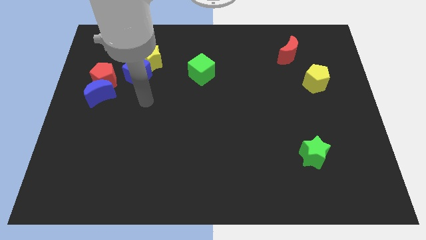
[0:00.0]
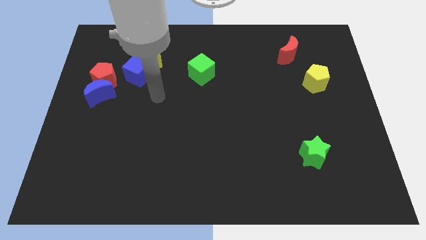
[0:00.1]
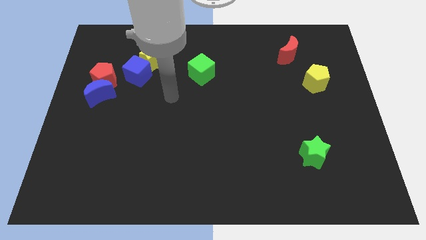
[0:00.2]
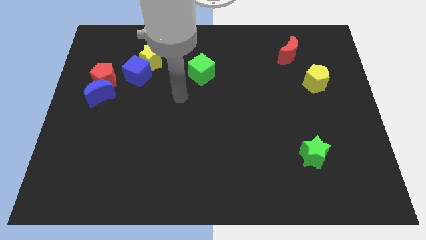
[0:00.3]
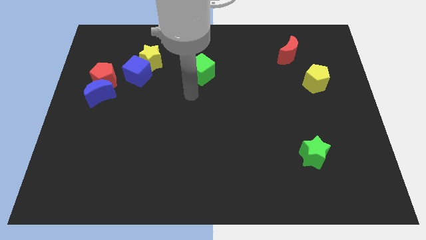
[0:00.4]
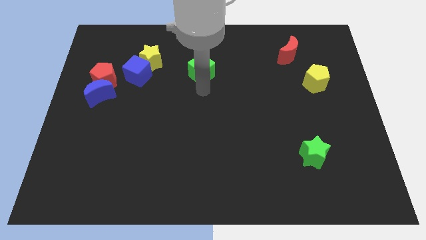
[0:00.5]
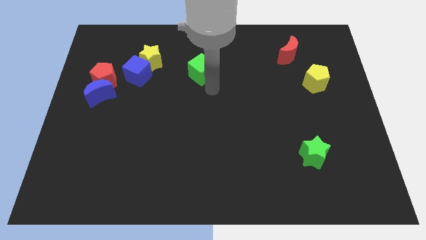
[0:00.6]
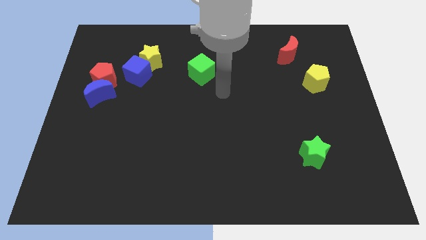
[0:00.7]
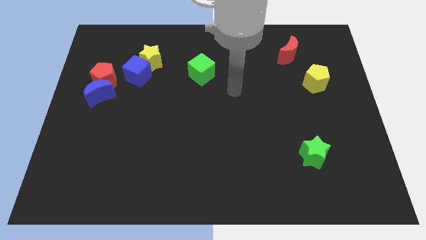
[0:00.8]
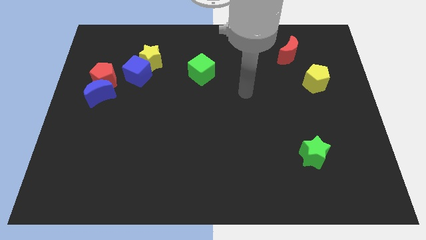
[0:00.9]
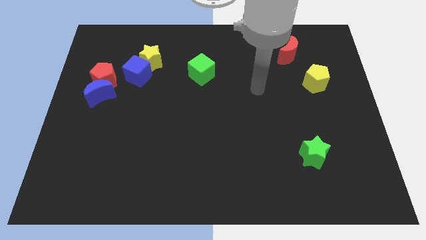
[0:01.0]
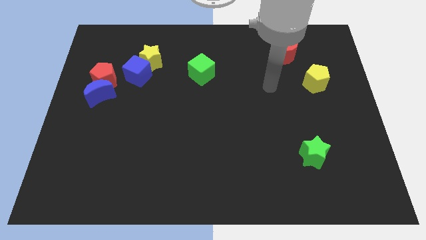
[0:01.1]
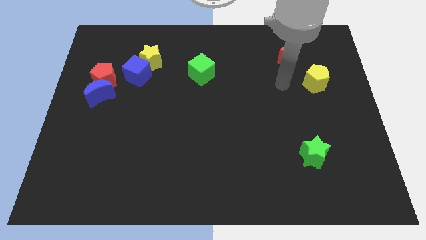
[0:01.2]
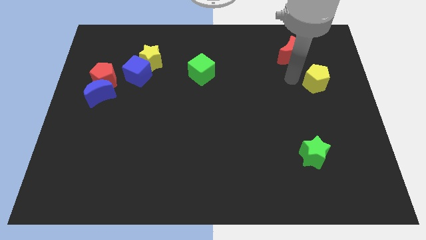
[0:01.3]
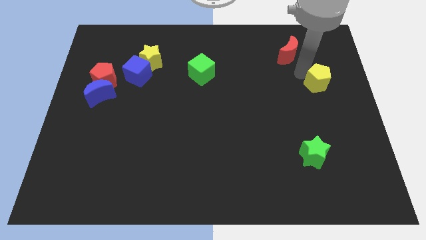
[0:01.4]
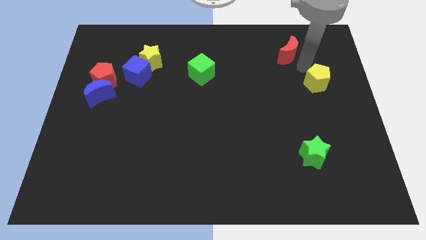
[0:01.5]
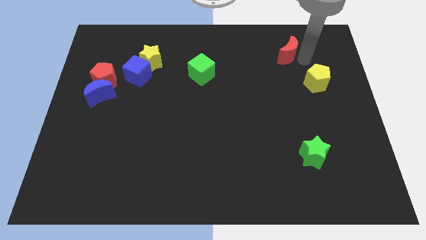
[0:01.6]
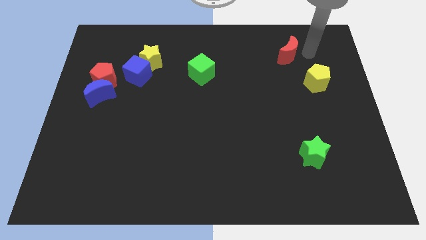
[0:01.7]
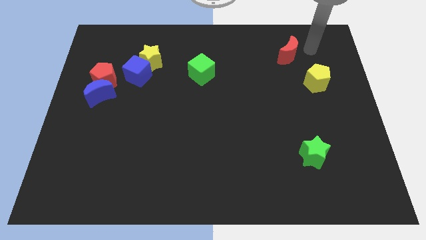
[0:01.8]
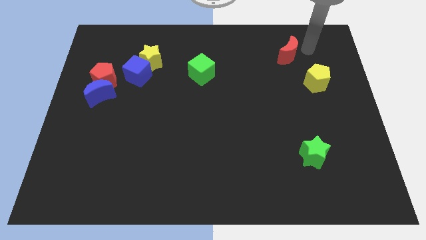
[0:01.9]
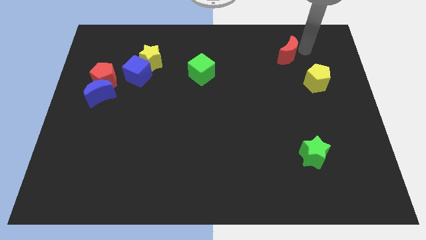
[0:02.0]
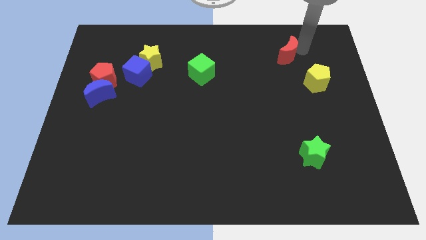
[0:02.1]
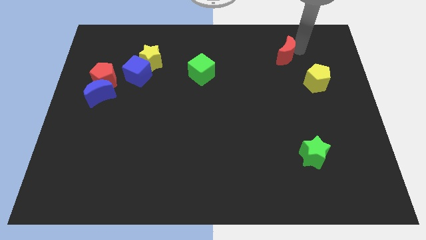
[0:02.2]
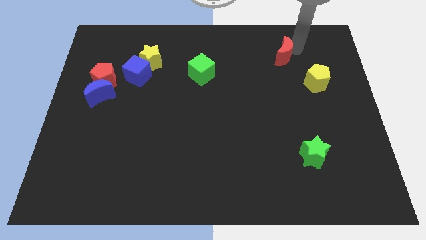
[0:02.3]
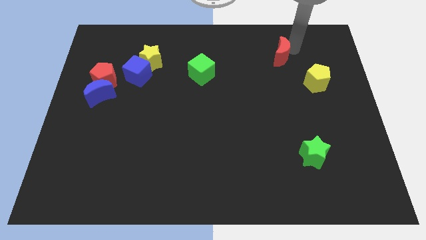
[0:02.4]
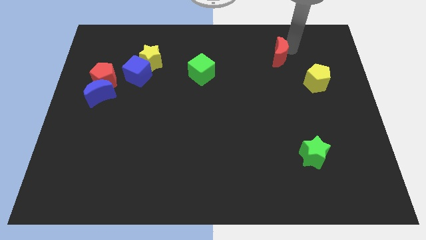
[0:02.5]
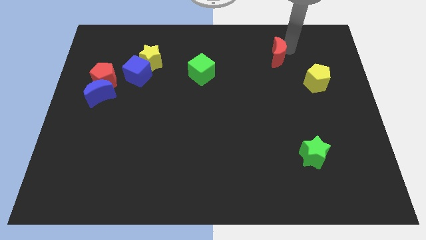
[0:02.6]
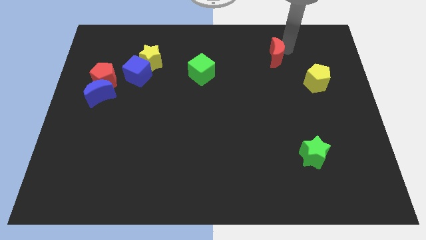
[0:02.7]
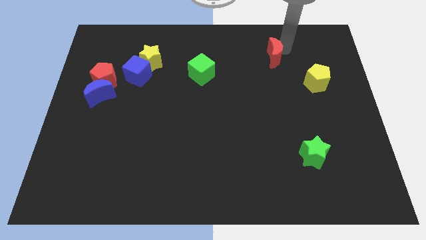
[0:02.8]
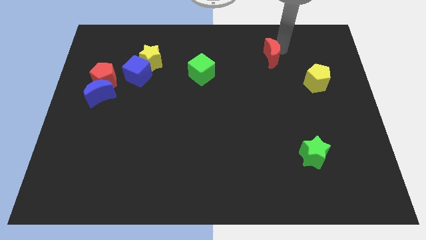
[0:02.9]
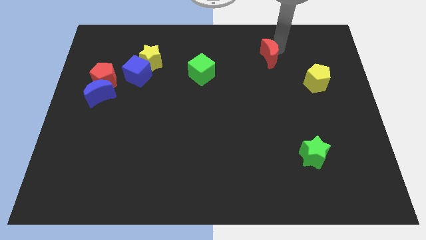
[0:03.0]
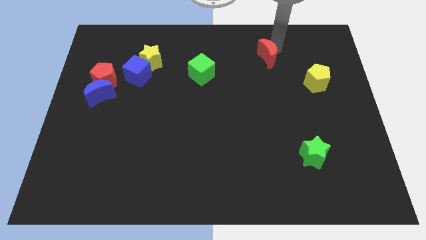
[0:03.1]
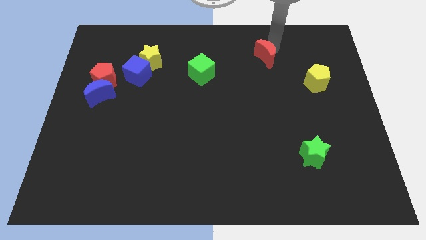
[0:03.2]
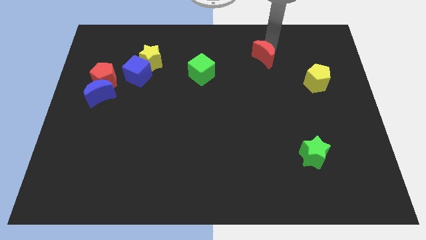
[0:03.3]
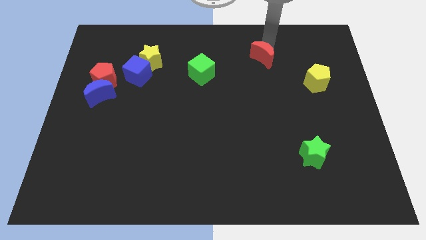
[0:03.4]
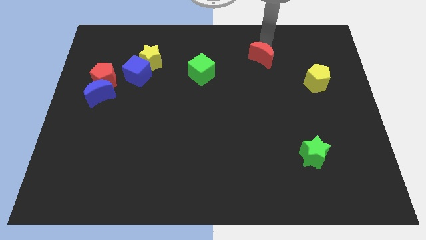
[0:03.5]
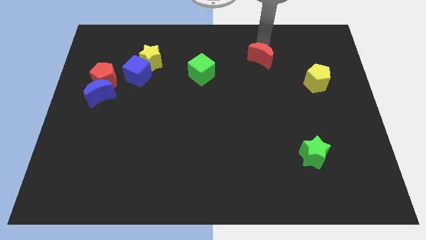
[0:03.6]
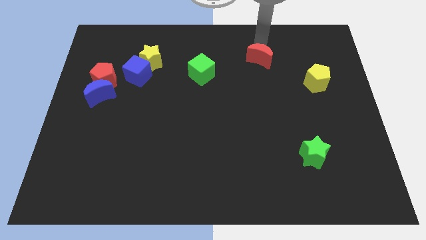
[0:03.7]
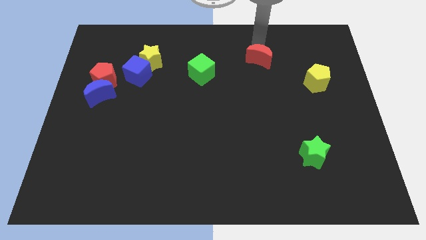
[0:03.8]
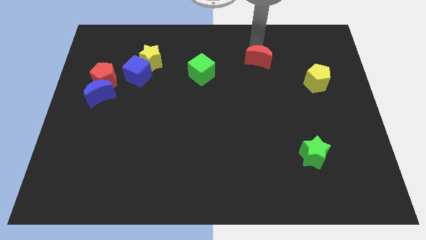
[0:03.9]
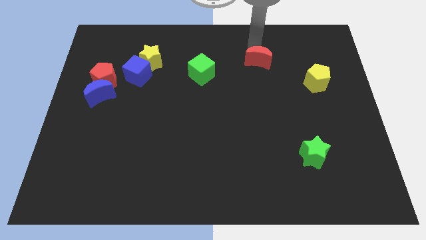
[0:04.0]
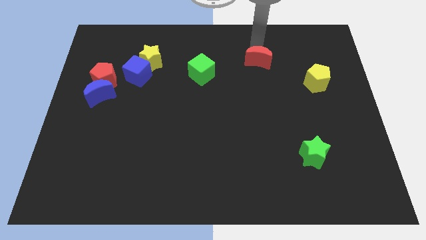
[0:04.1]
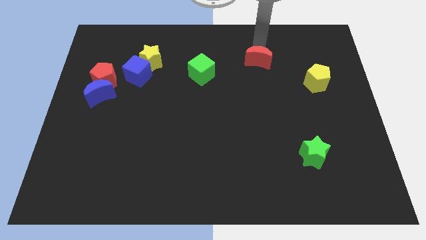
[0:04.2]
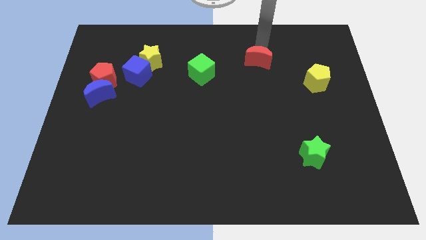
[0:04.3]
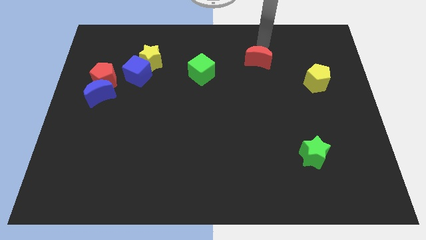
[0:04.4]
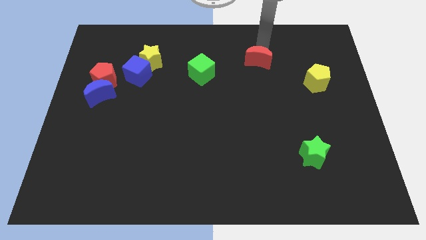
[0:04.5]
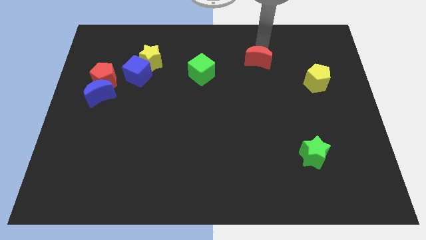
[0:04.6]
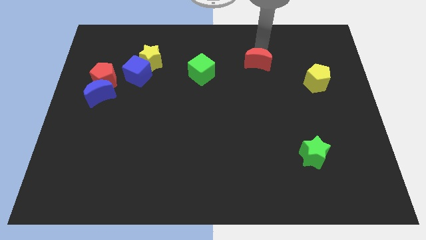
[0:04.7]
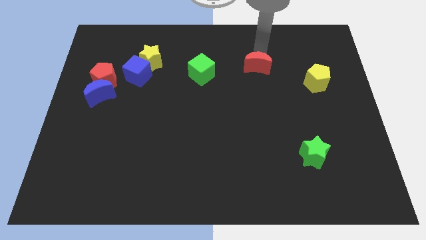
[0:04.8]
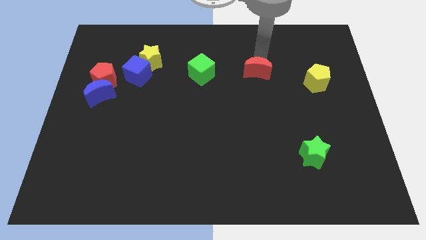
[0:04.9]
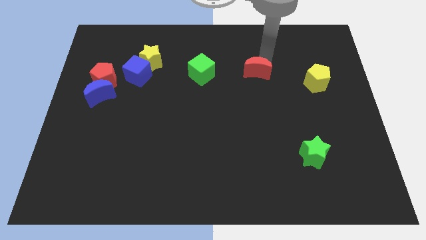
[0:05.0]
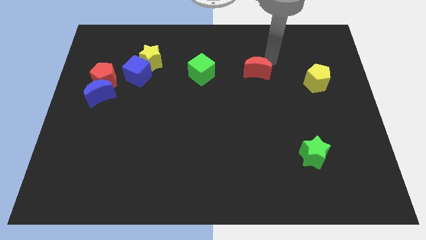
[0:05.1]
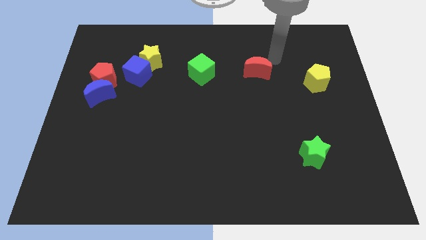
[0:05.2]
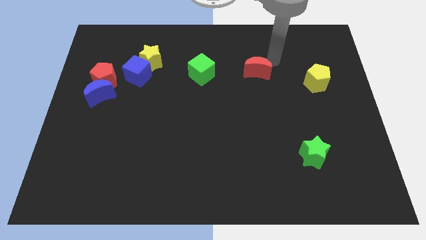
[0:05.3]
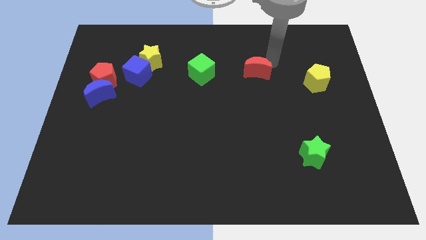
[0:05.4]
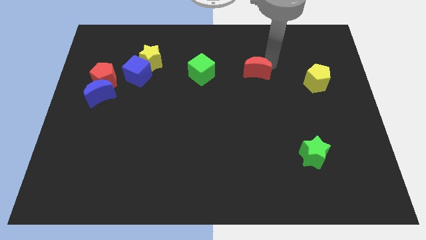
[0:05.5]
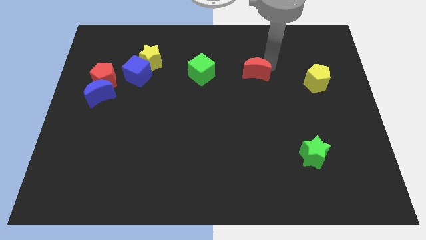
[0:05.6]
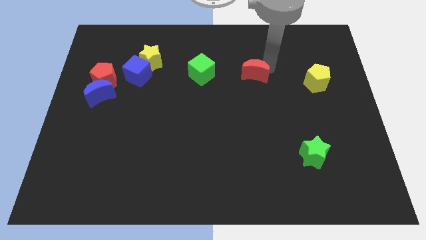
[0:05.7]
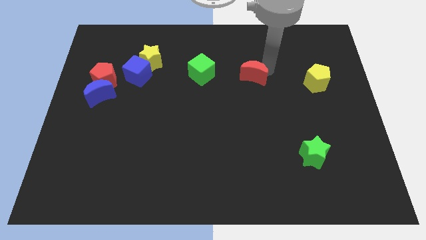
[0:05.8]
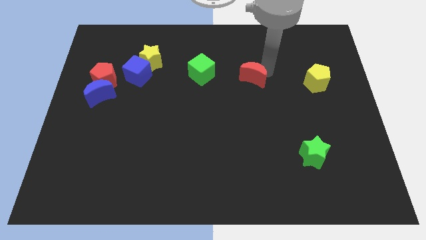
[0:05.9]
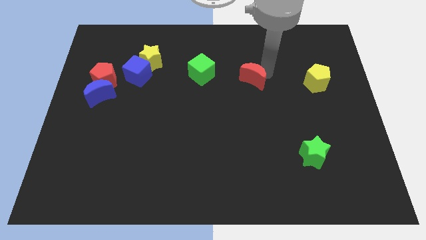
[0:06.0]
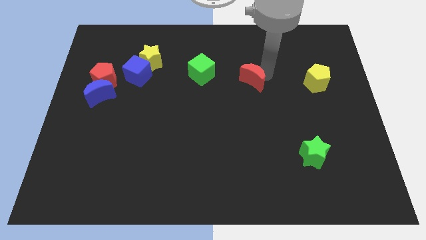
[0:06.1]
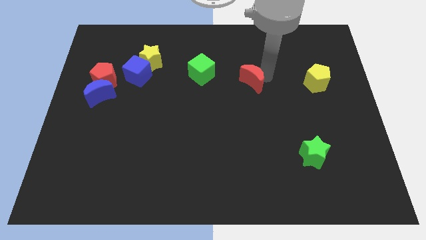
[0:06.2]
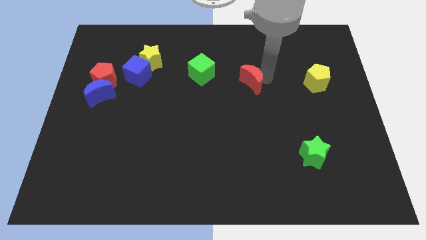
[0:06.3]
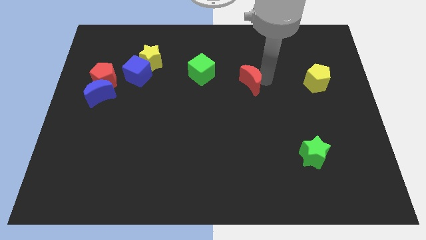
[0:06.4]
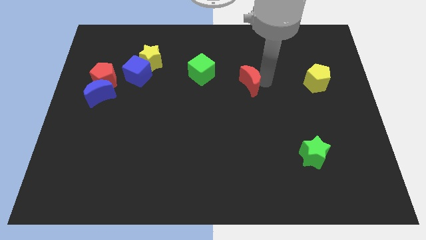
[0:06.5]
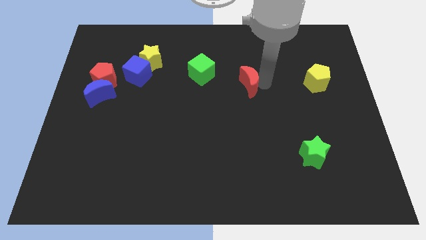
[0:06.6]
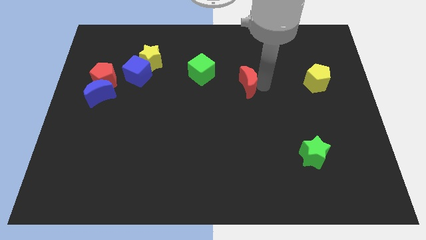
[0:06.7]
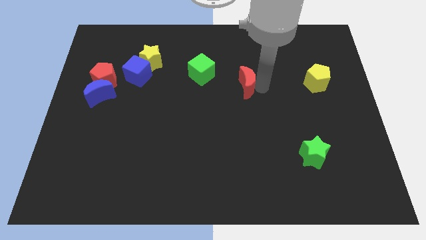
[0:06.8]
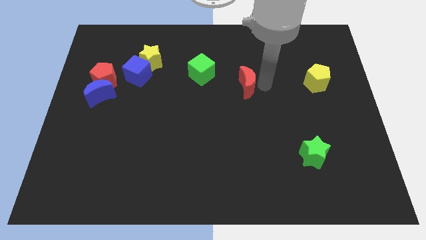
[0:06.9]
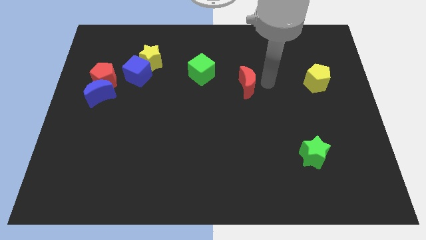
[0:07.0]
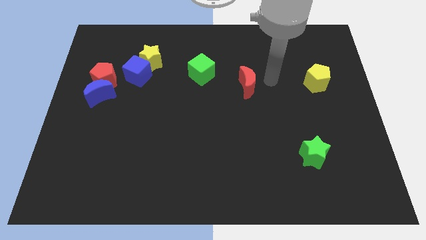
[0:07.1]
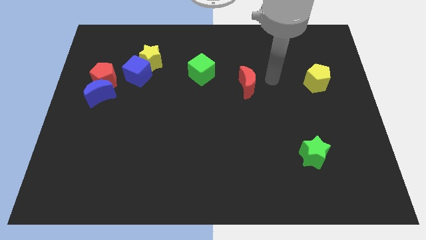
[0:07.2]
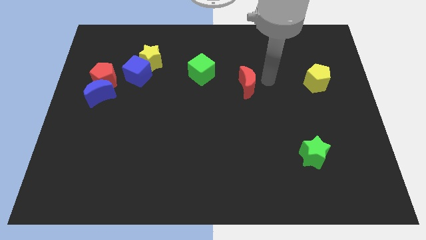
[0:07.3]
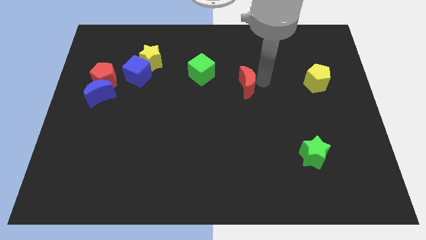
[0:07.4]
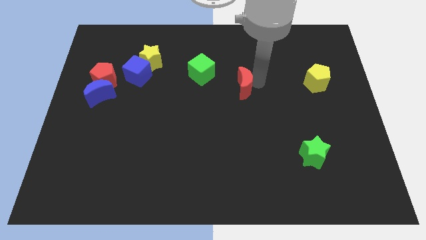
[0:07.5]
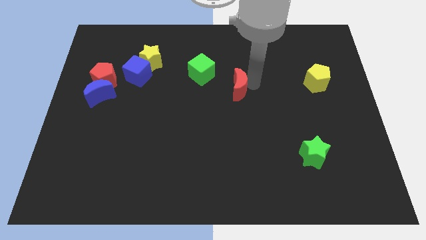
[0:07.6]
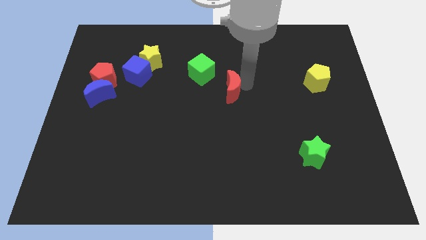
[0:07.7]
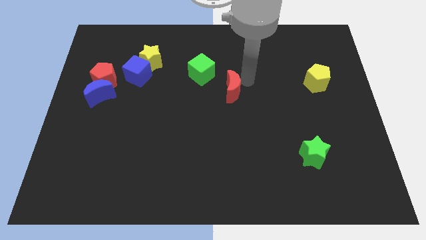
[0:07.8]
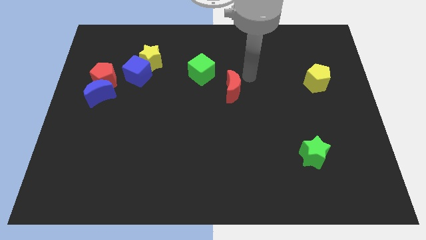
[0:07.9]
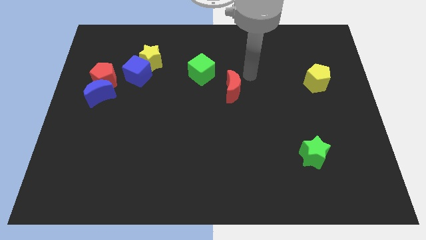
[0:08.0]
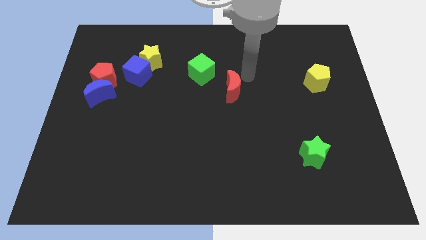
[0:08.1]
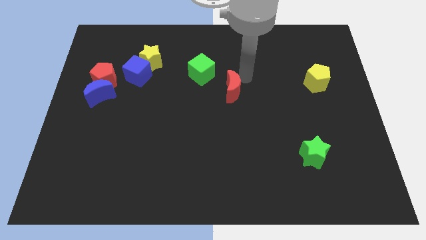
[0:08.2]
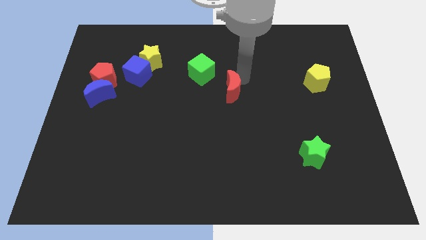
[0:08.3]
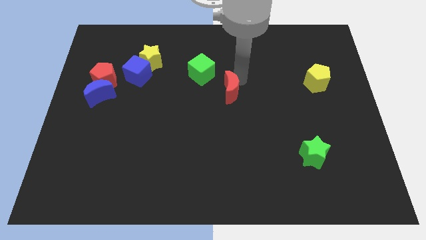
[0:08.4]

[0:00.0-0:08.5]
push the red moon downwards and then left
